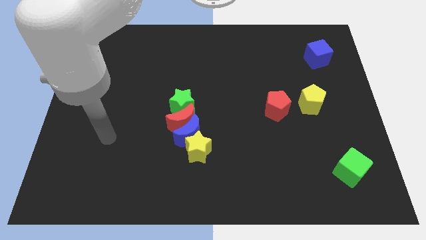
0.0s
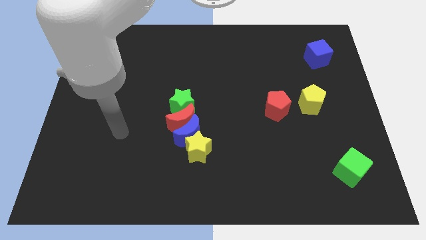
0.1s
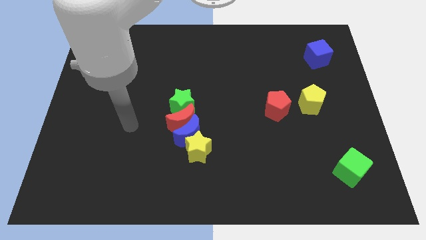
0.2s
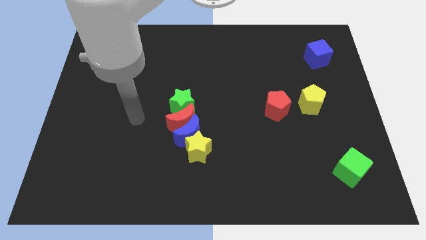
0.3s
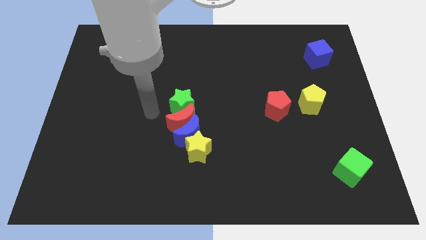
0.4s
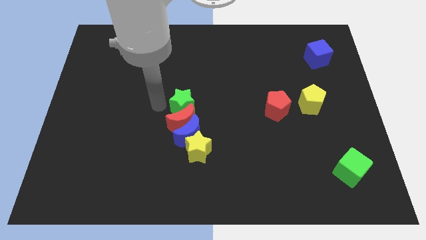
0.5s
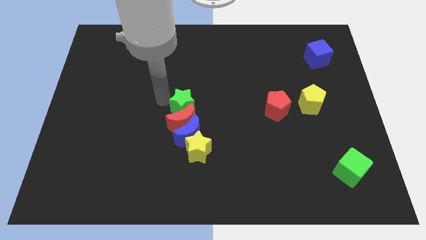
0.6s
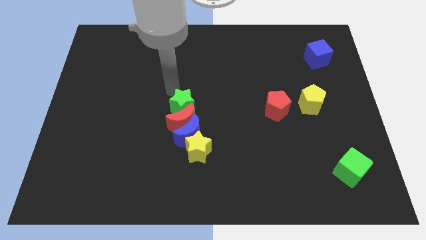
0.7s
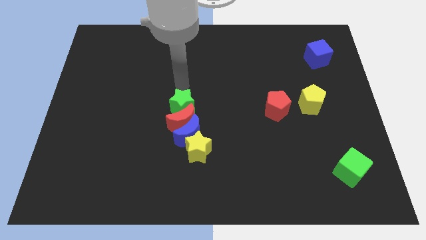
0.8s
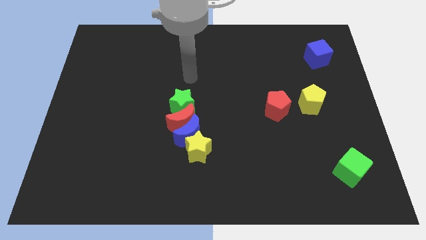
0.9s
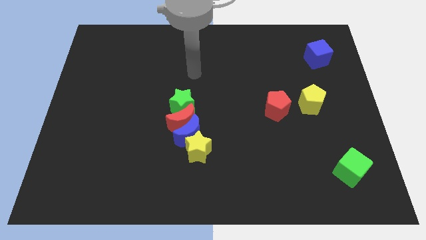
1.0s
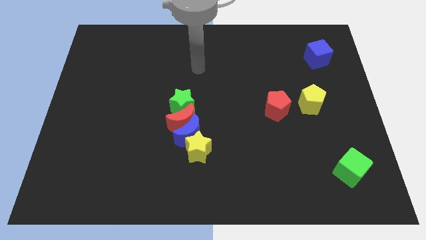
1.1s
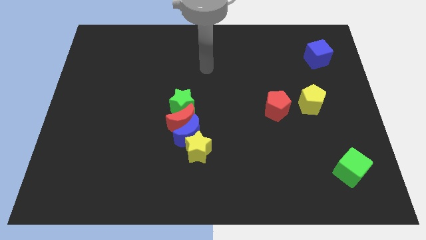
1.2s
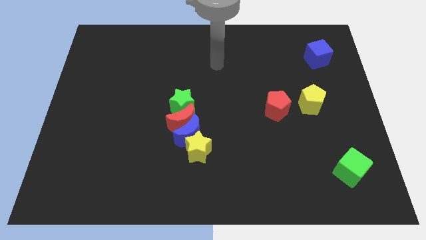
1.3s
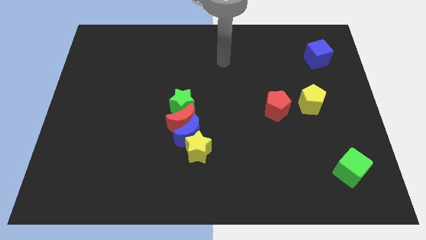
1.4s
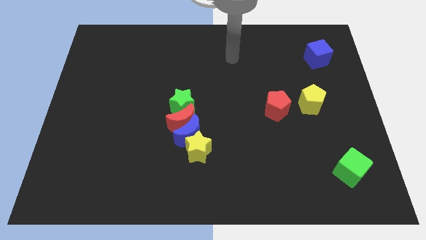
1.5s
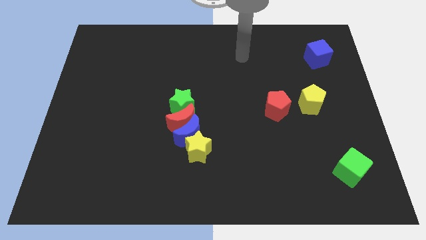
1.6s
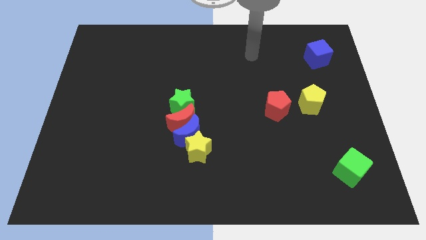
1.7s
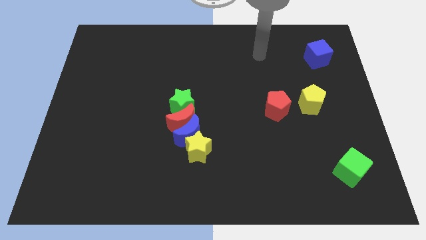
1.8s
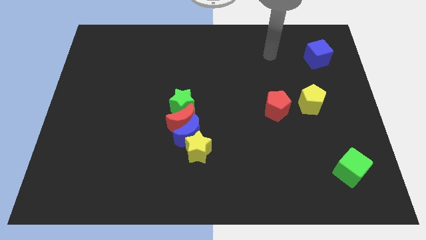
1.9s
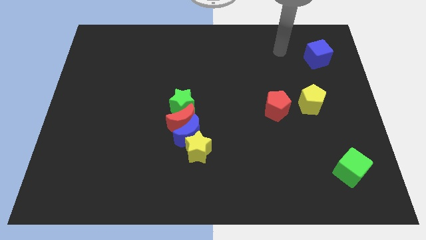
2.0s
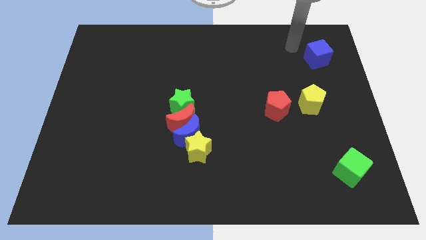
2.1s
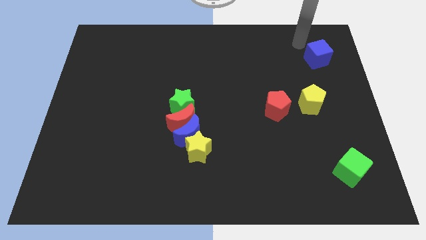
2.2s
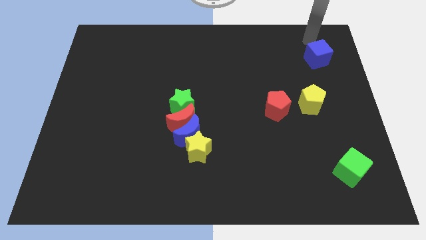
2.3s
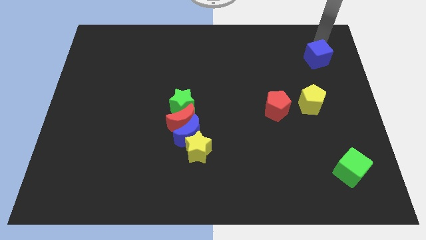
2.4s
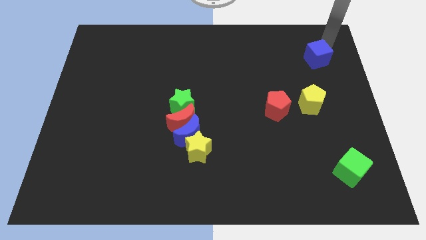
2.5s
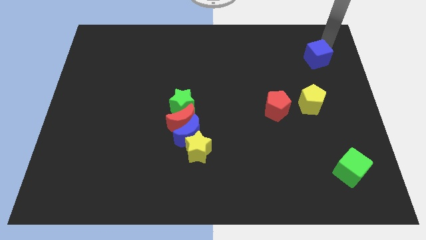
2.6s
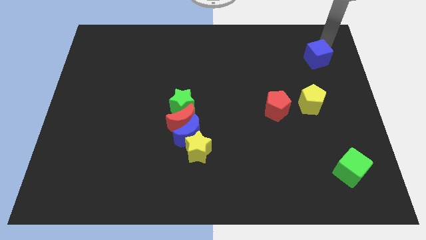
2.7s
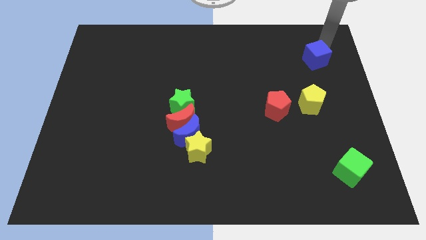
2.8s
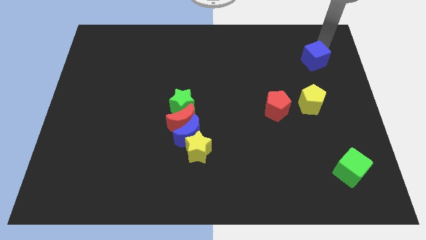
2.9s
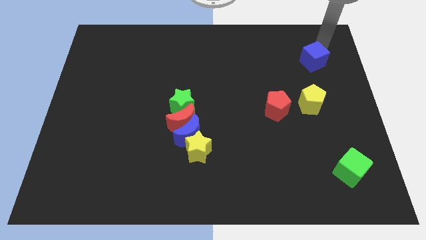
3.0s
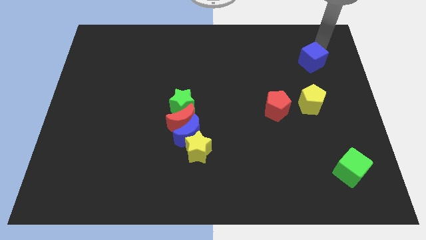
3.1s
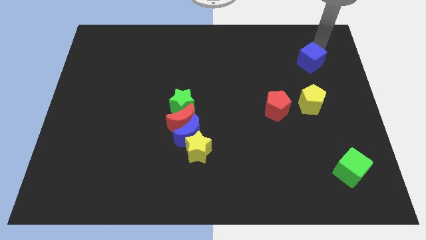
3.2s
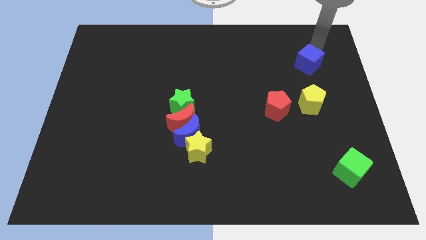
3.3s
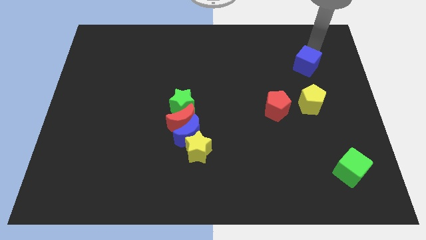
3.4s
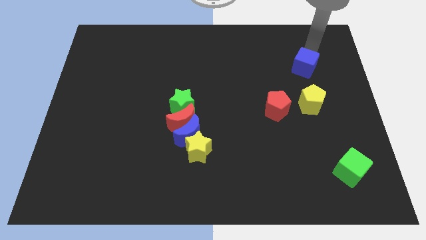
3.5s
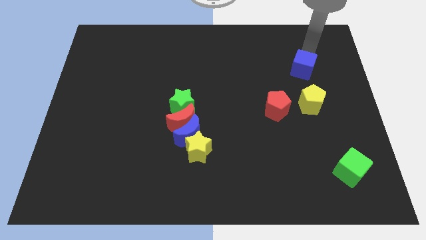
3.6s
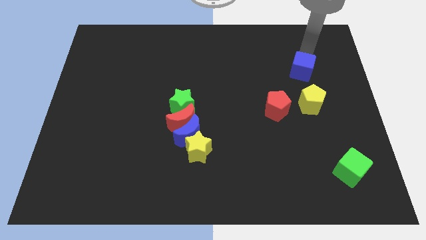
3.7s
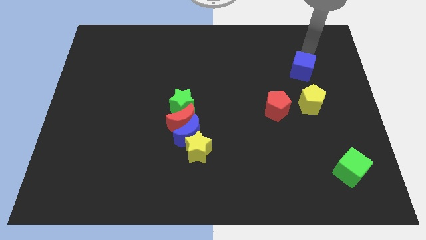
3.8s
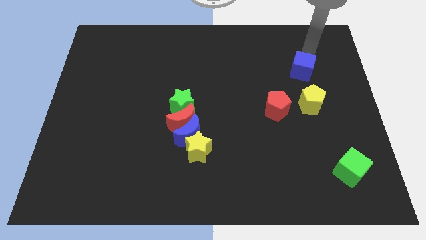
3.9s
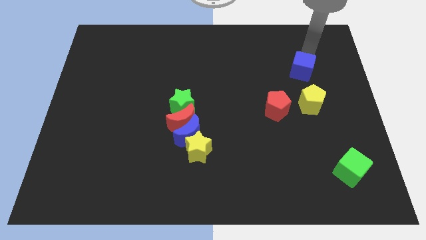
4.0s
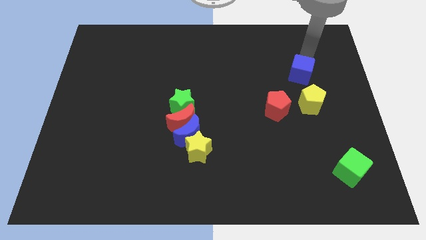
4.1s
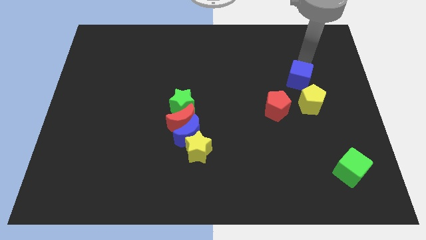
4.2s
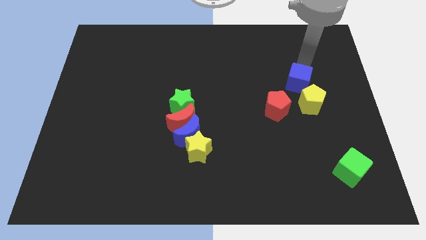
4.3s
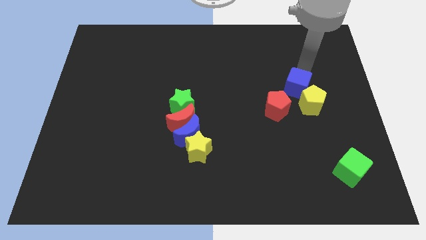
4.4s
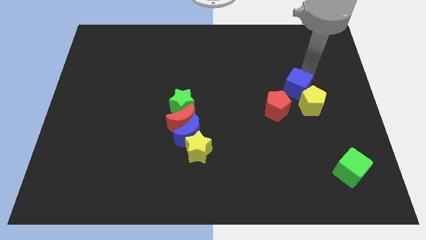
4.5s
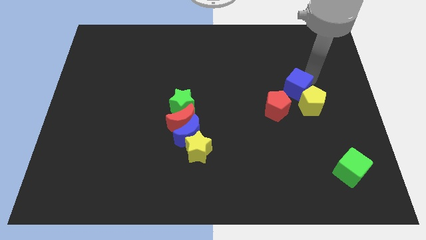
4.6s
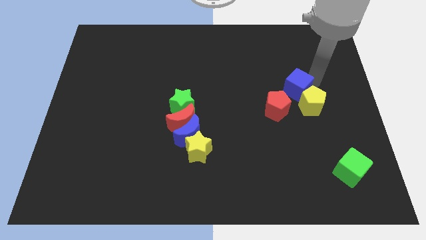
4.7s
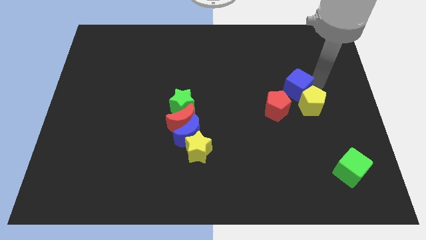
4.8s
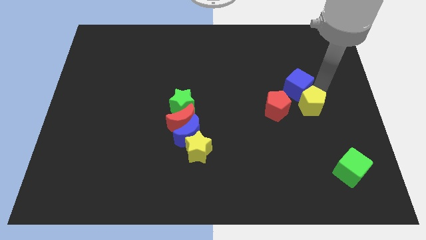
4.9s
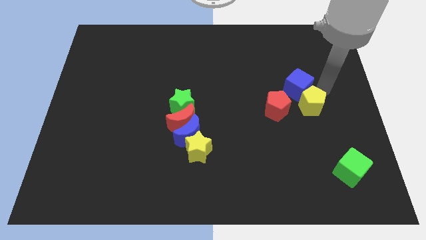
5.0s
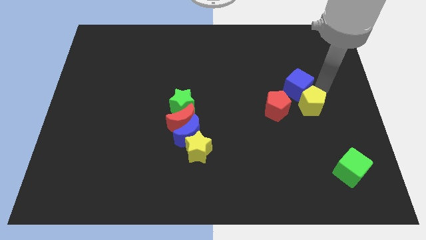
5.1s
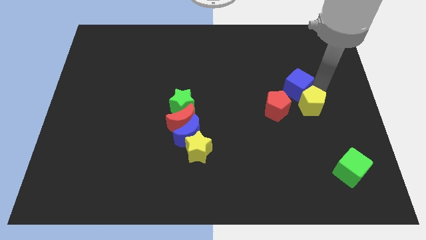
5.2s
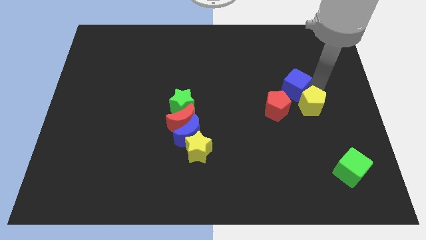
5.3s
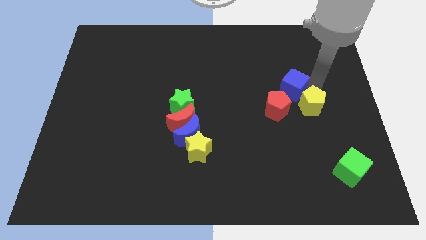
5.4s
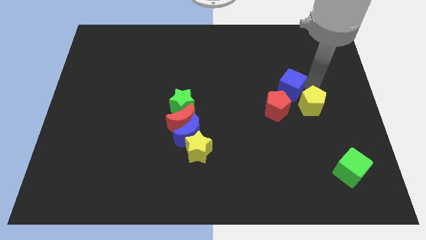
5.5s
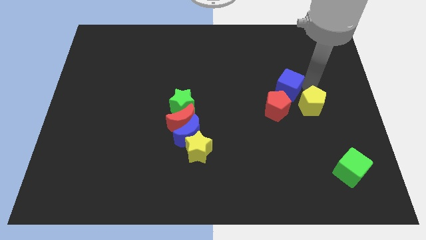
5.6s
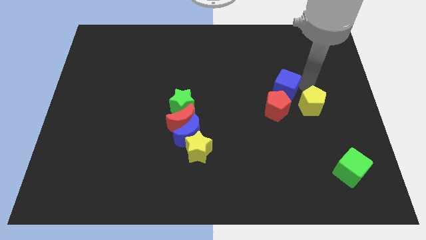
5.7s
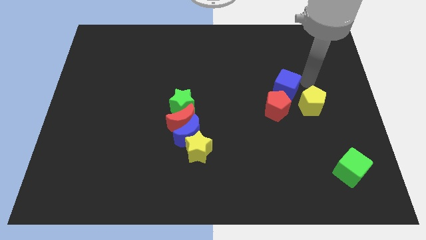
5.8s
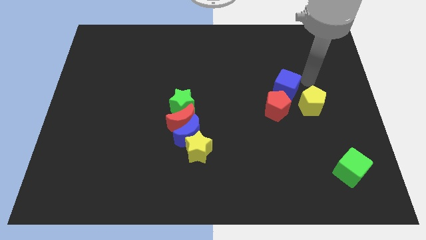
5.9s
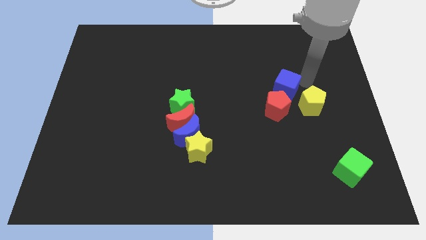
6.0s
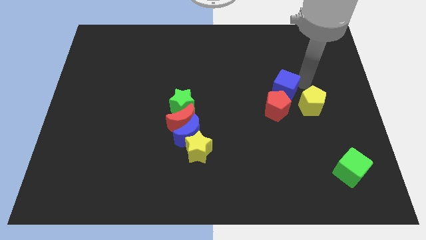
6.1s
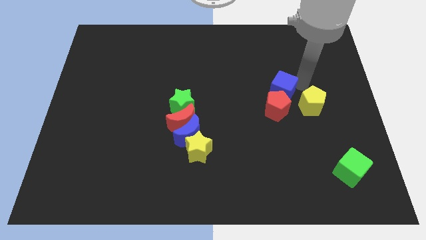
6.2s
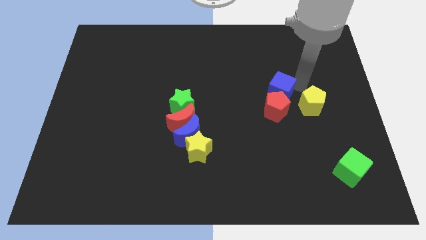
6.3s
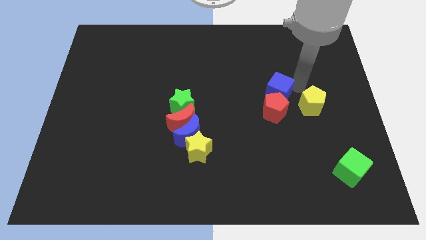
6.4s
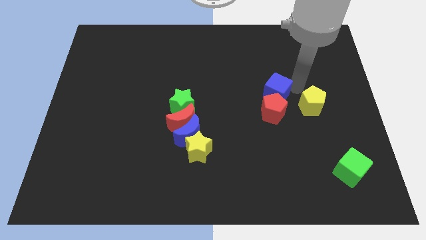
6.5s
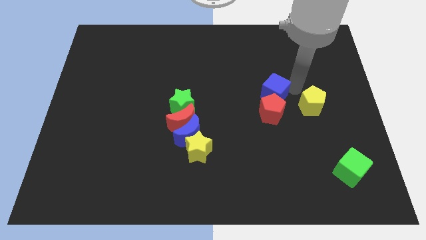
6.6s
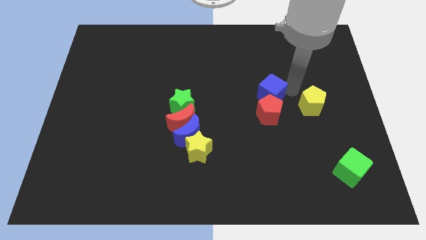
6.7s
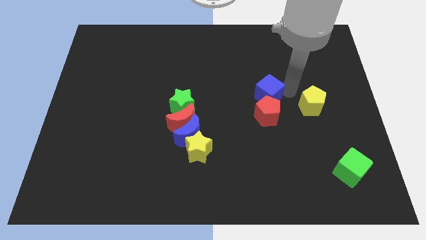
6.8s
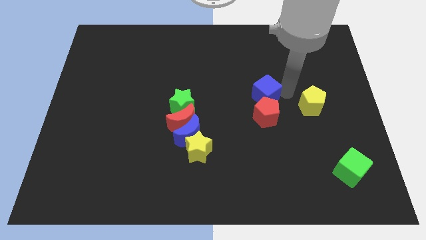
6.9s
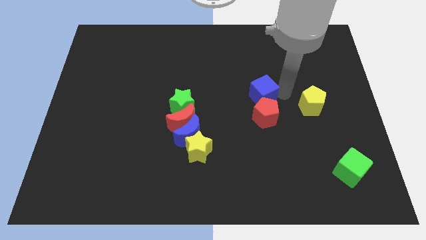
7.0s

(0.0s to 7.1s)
push the blue cube diagonally downwards and left

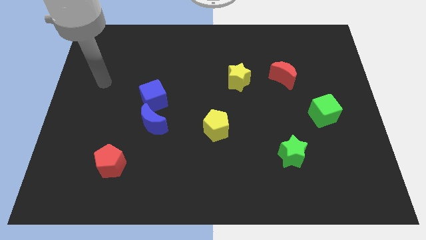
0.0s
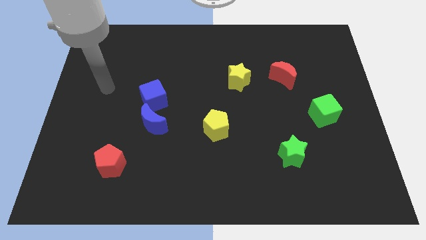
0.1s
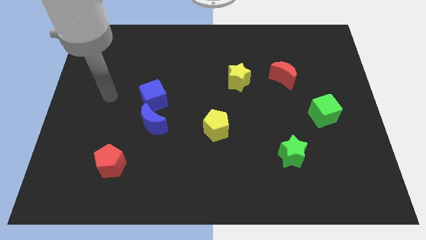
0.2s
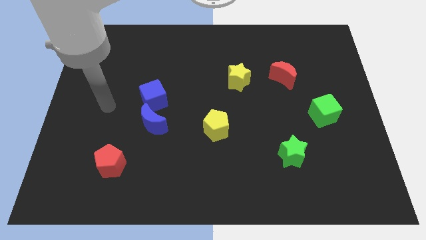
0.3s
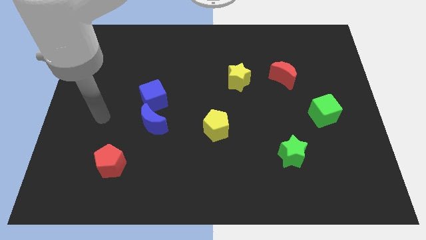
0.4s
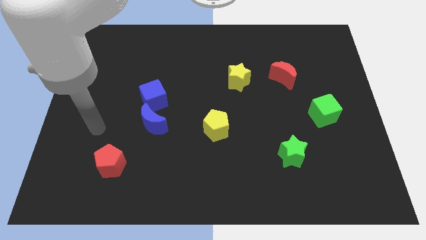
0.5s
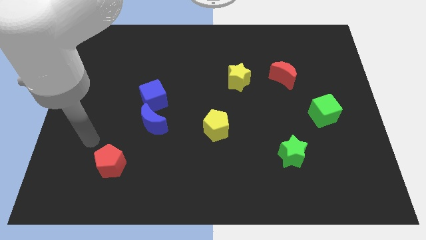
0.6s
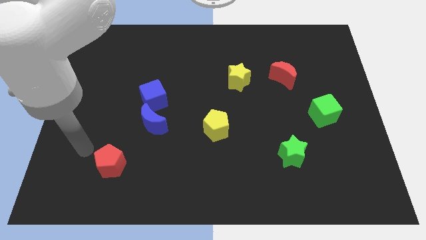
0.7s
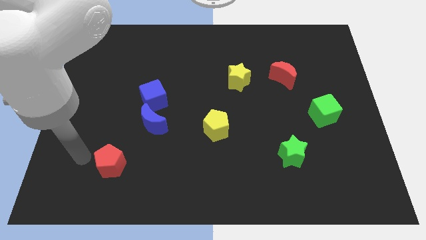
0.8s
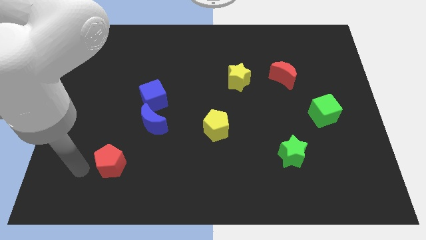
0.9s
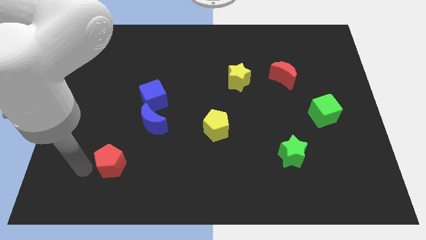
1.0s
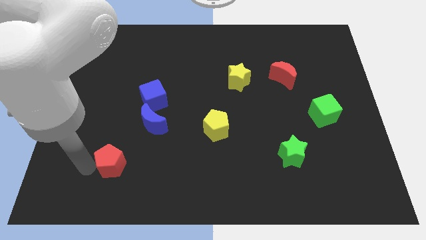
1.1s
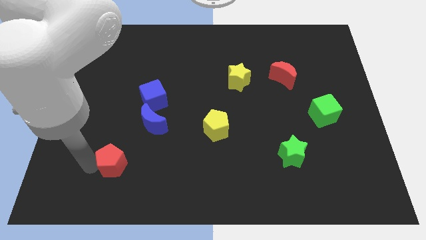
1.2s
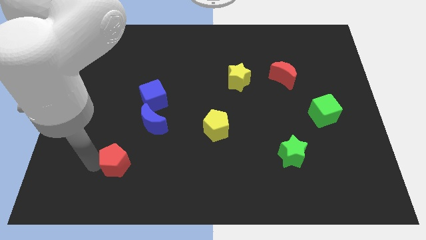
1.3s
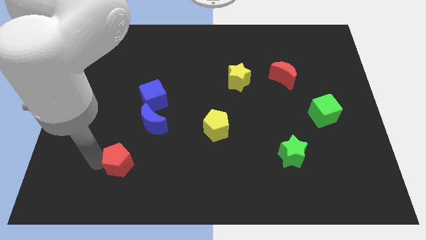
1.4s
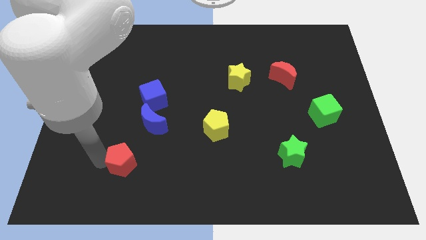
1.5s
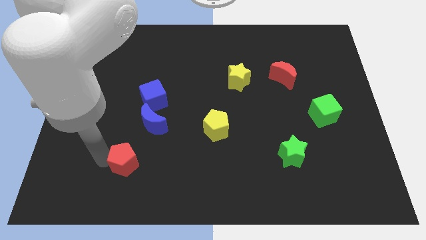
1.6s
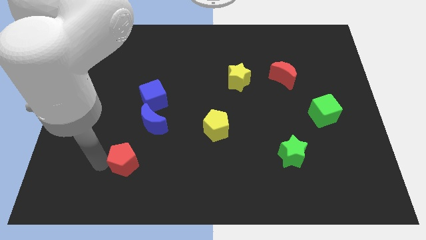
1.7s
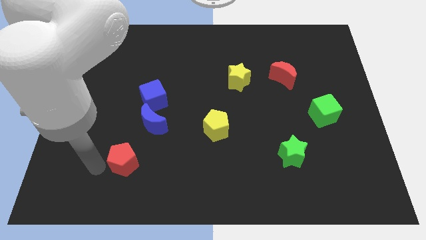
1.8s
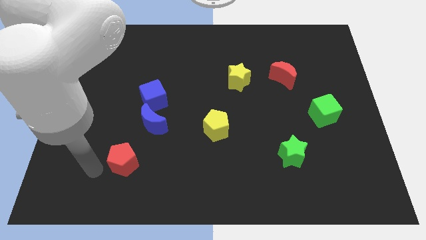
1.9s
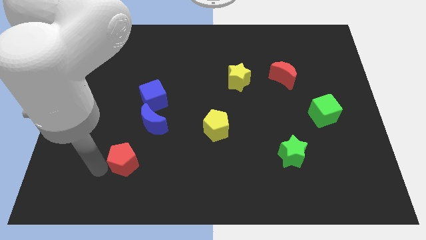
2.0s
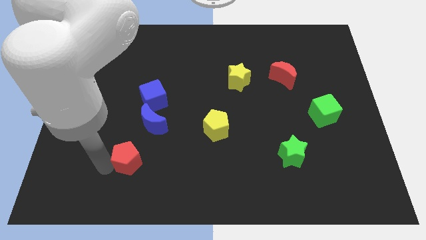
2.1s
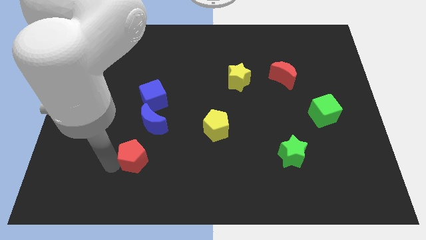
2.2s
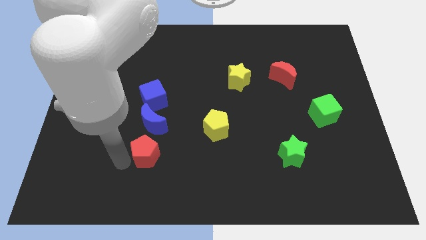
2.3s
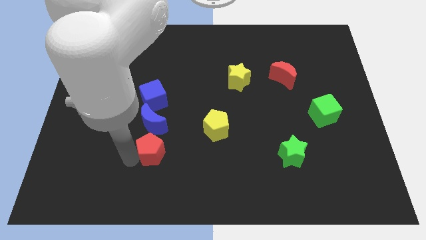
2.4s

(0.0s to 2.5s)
slide the red pentagon a little upwards and to the right diagonally
